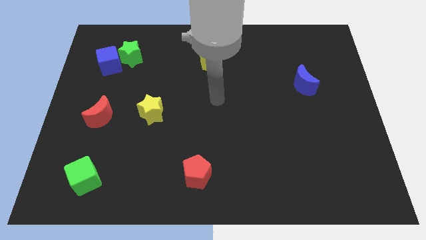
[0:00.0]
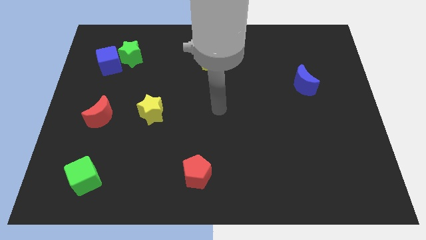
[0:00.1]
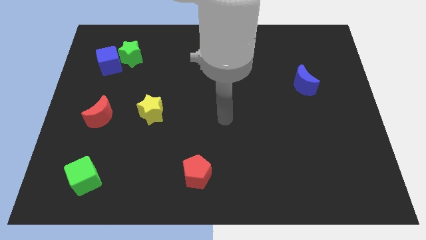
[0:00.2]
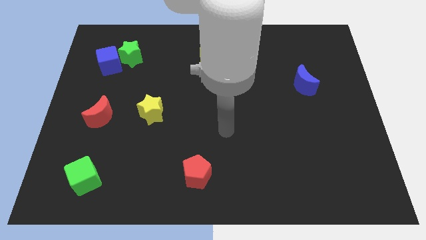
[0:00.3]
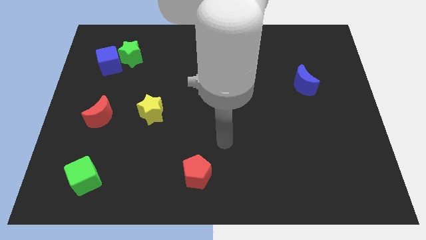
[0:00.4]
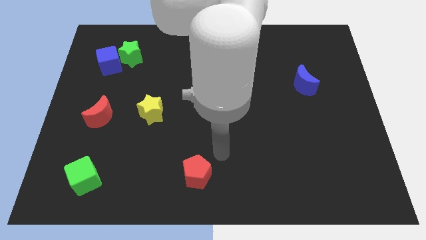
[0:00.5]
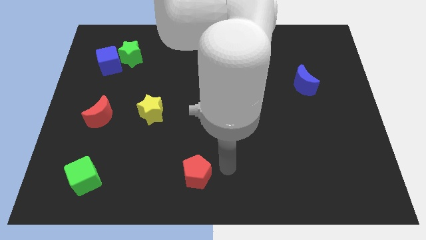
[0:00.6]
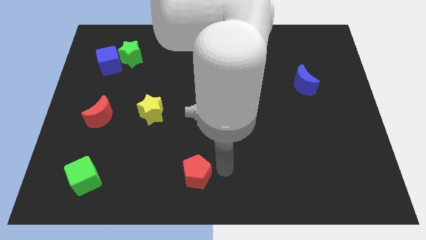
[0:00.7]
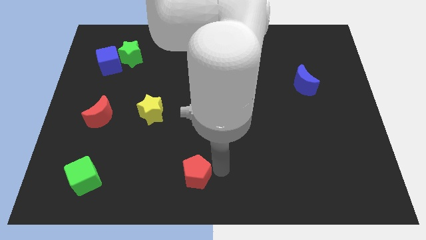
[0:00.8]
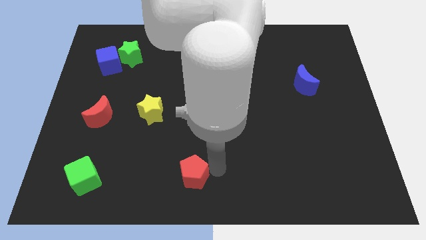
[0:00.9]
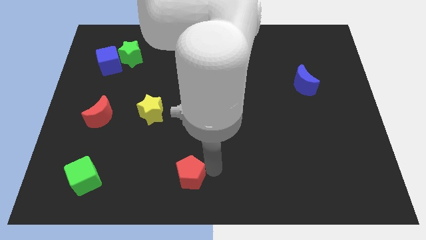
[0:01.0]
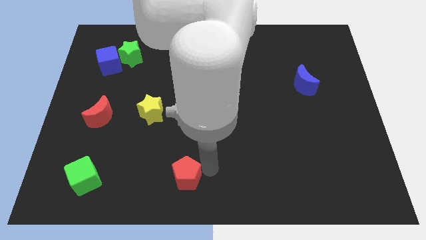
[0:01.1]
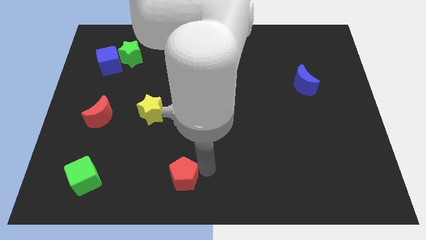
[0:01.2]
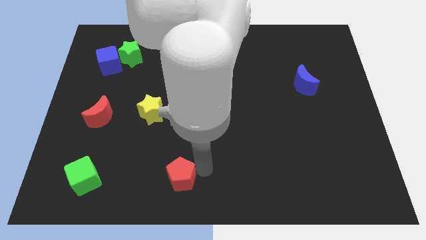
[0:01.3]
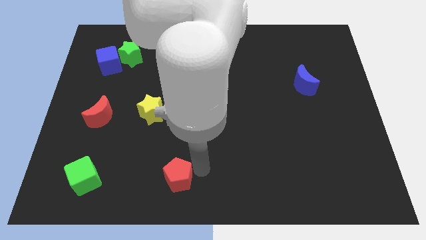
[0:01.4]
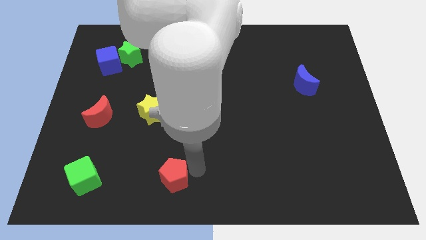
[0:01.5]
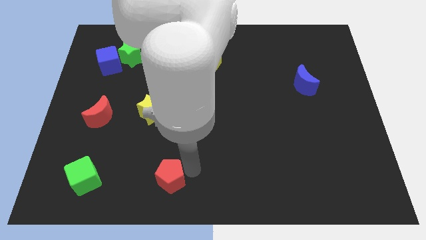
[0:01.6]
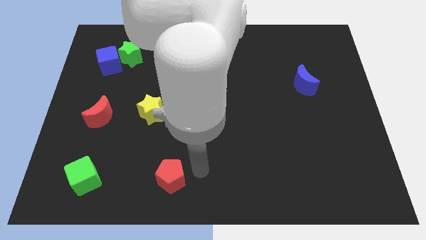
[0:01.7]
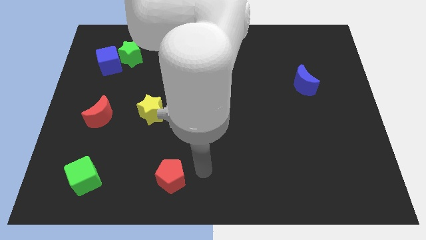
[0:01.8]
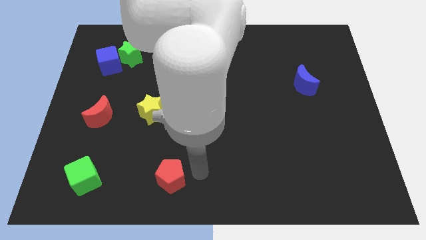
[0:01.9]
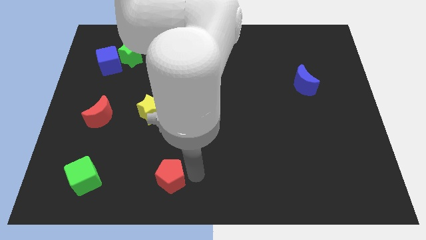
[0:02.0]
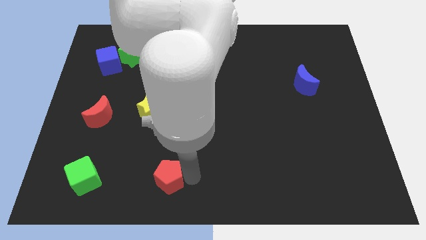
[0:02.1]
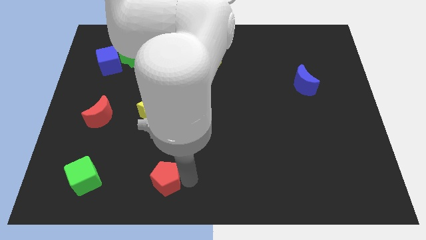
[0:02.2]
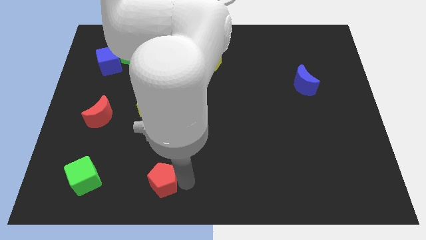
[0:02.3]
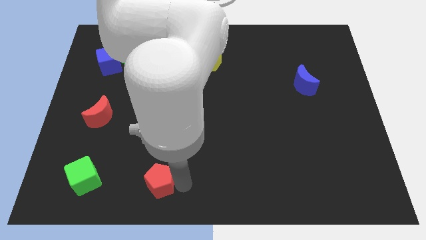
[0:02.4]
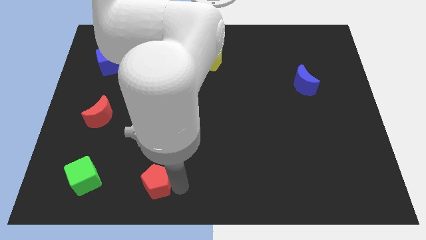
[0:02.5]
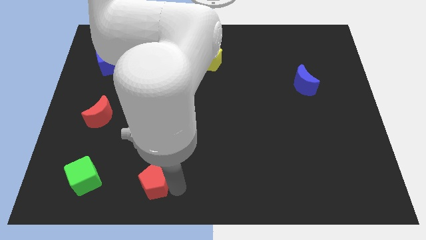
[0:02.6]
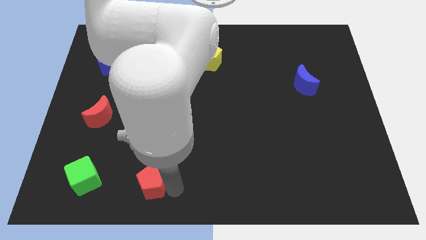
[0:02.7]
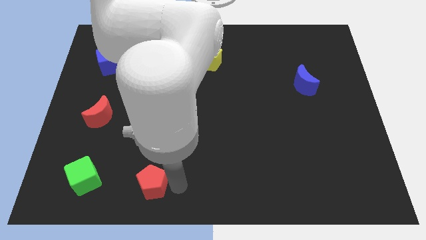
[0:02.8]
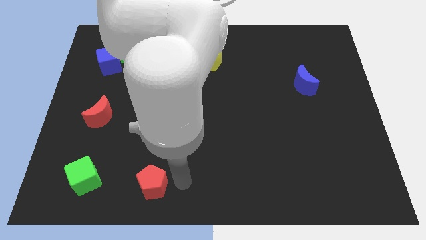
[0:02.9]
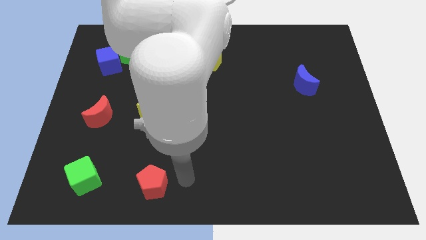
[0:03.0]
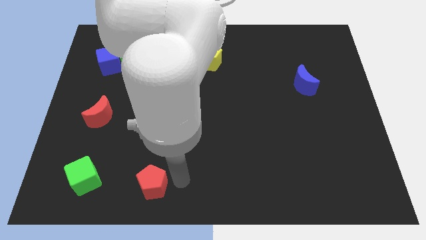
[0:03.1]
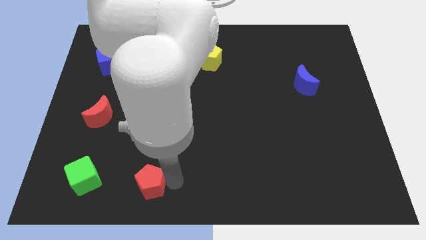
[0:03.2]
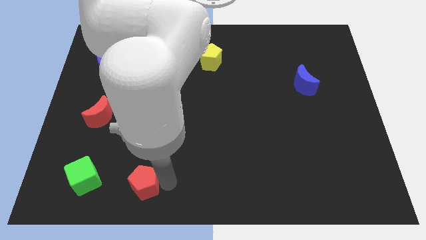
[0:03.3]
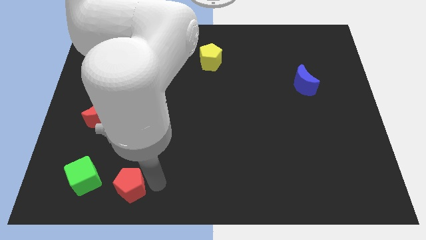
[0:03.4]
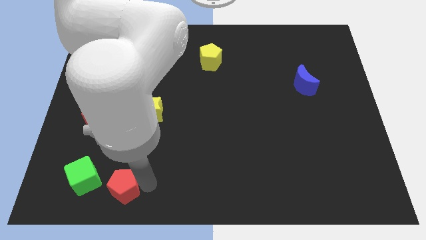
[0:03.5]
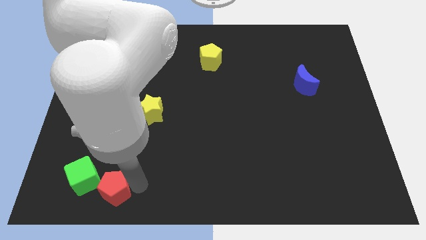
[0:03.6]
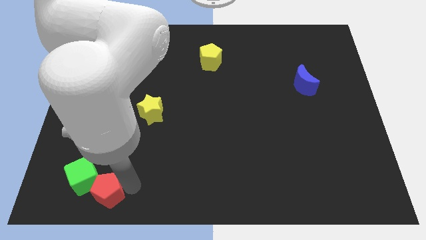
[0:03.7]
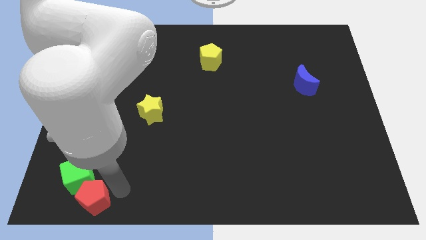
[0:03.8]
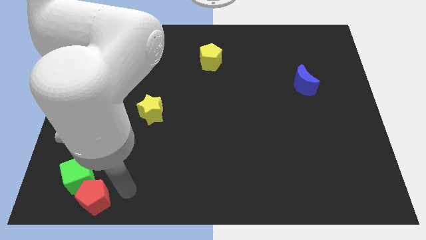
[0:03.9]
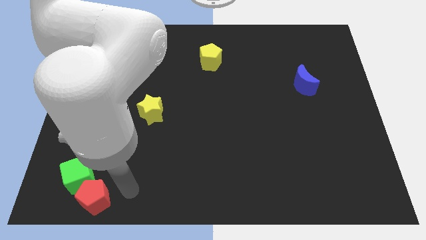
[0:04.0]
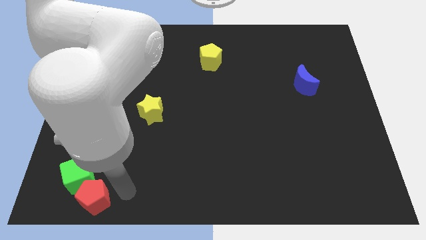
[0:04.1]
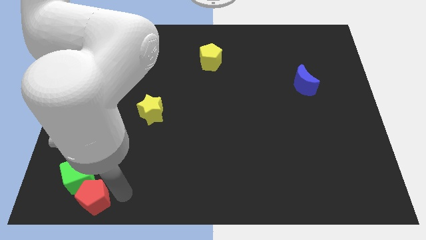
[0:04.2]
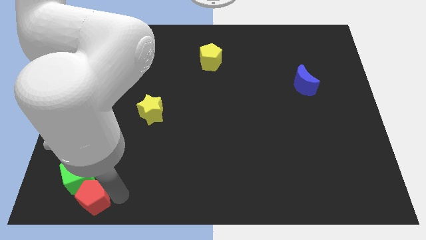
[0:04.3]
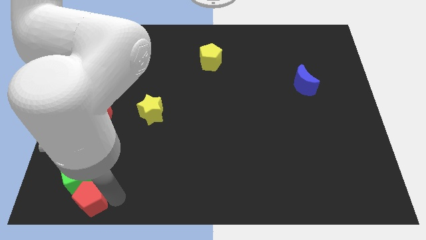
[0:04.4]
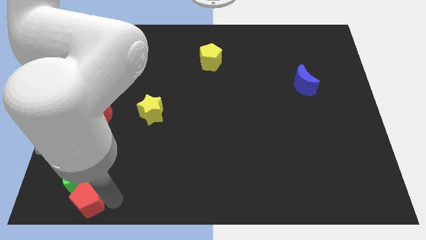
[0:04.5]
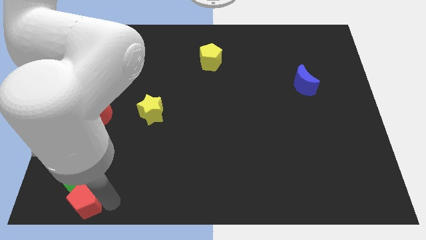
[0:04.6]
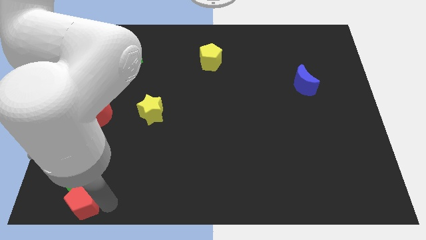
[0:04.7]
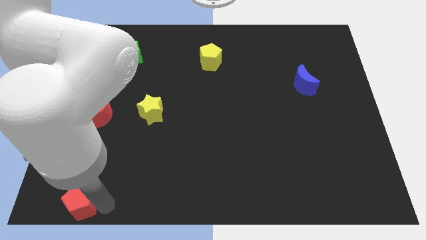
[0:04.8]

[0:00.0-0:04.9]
push the red pentagon to the bottom left of the board

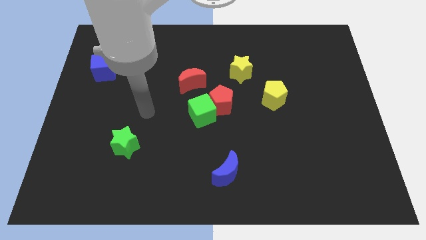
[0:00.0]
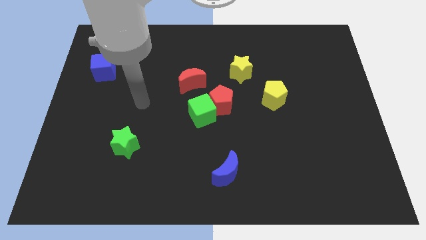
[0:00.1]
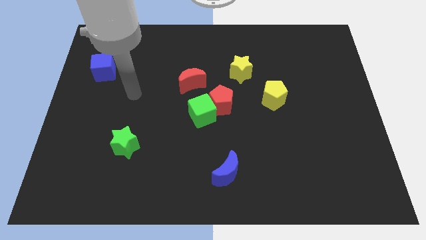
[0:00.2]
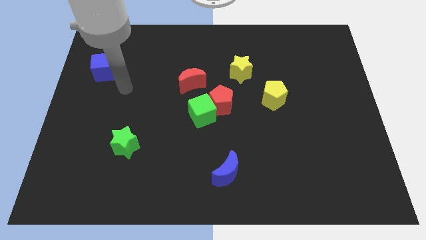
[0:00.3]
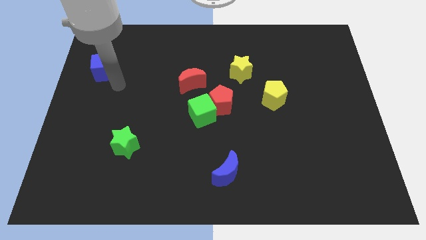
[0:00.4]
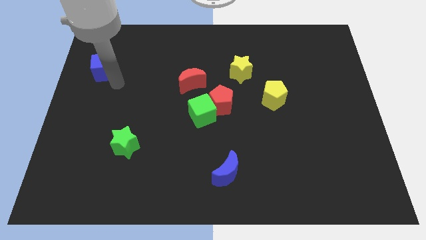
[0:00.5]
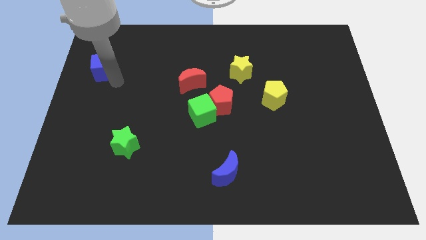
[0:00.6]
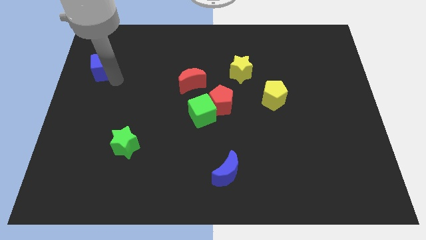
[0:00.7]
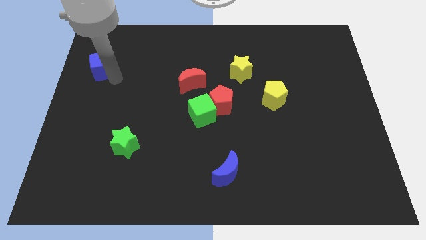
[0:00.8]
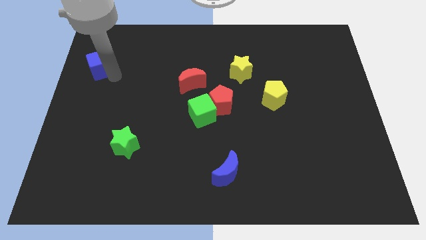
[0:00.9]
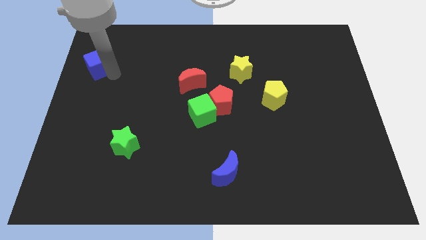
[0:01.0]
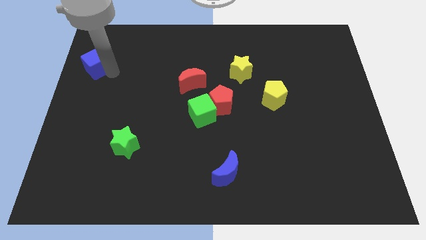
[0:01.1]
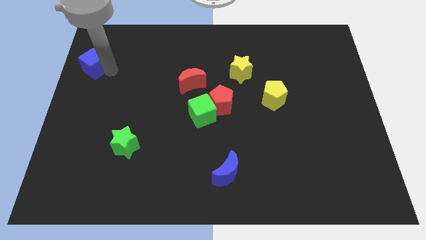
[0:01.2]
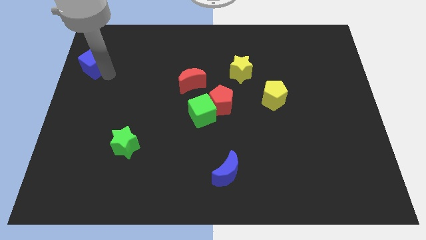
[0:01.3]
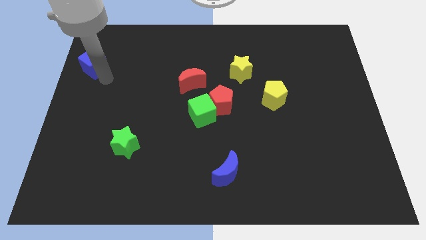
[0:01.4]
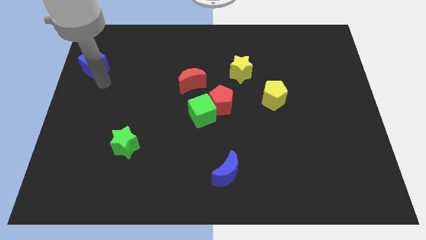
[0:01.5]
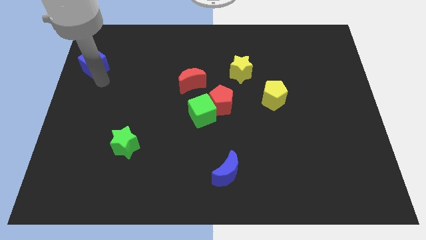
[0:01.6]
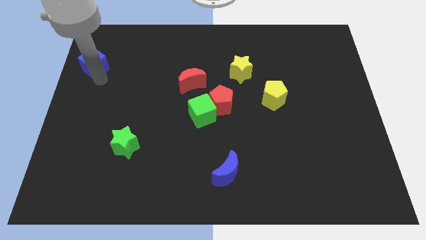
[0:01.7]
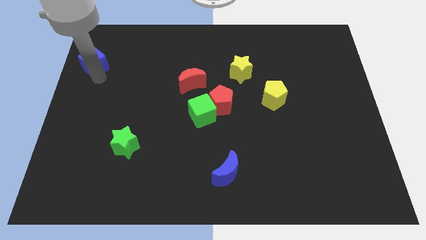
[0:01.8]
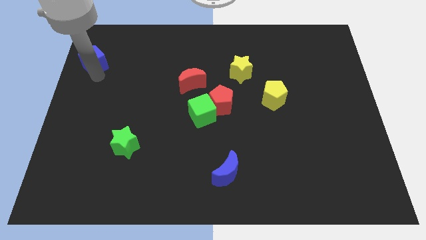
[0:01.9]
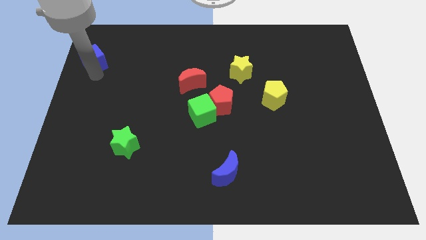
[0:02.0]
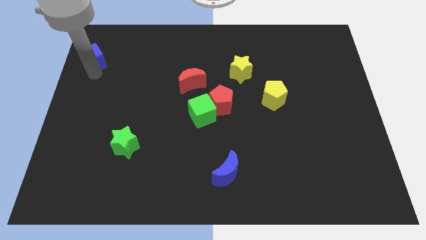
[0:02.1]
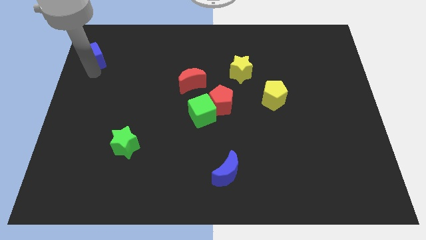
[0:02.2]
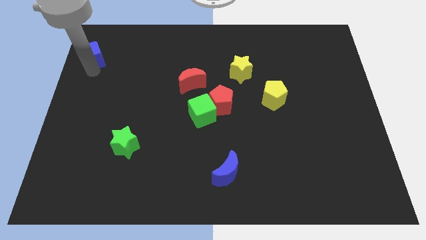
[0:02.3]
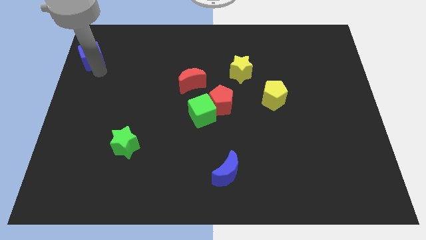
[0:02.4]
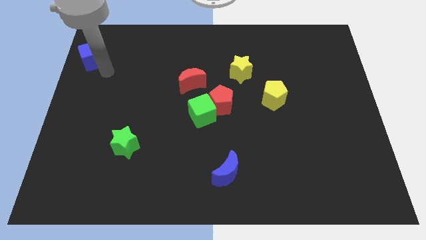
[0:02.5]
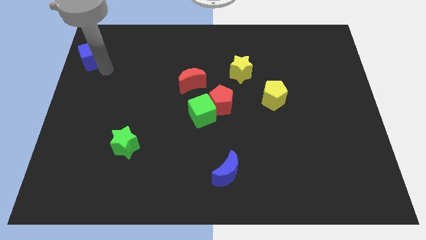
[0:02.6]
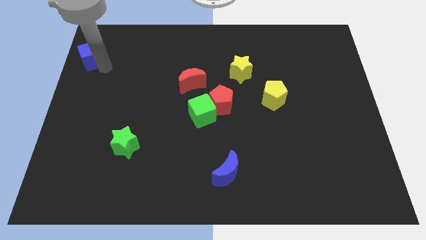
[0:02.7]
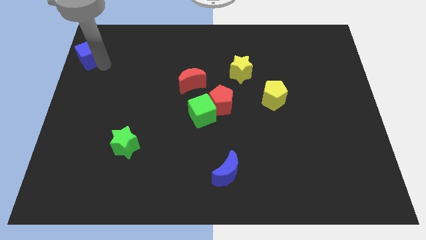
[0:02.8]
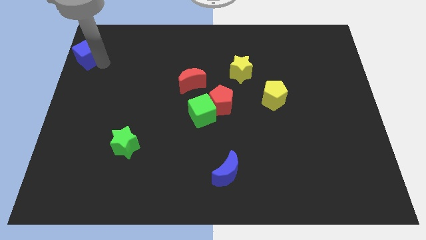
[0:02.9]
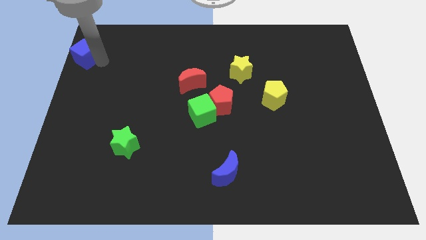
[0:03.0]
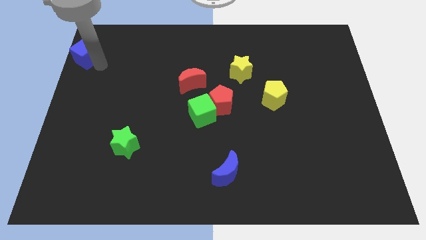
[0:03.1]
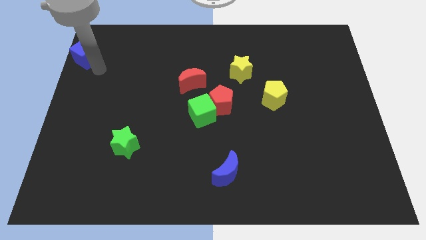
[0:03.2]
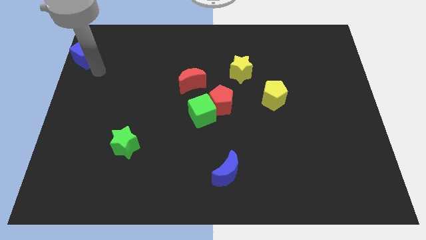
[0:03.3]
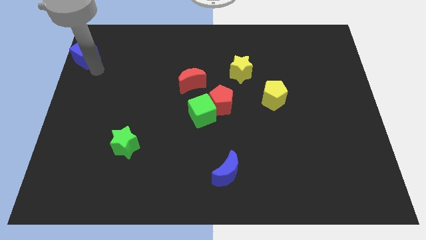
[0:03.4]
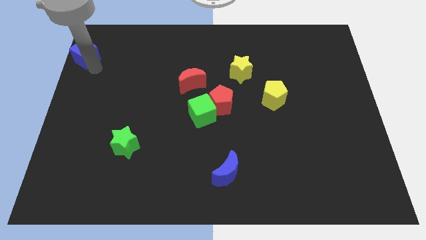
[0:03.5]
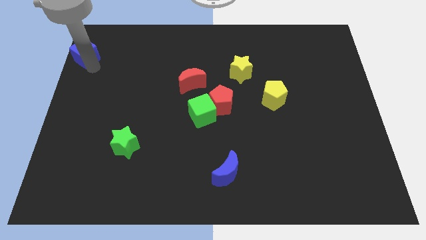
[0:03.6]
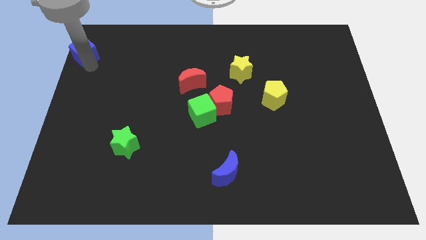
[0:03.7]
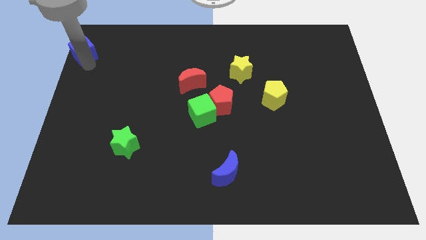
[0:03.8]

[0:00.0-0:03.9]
slide the blue cube to the upper left corner
